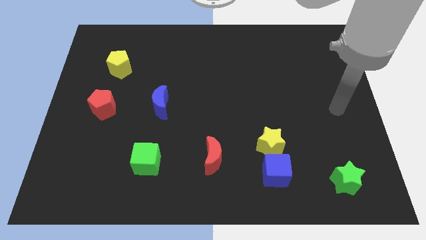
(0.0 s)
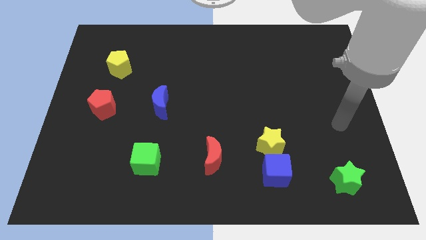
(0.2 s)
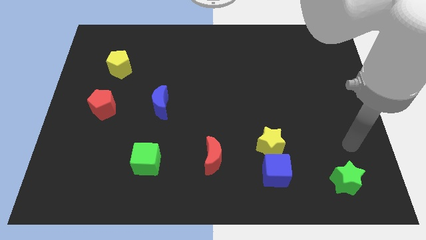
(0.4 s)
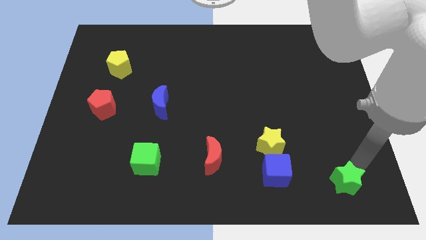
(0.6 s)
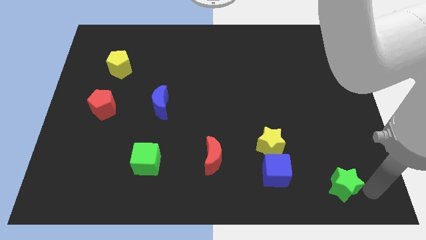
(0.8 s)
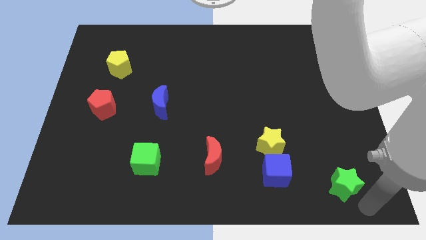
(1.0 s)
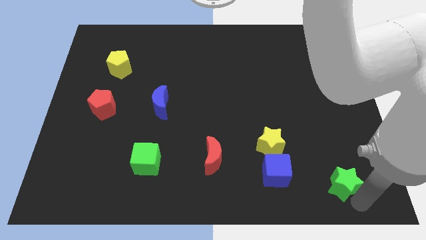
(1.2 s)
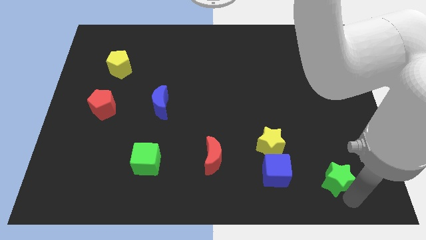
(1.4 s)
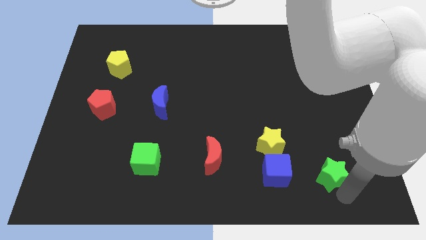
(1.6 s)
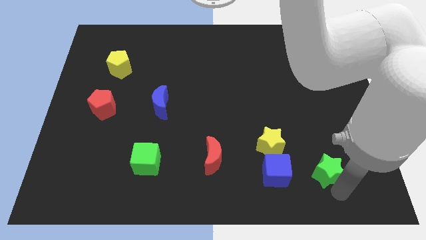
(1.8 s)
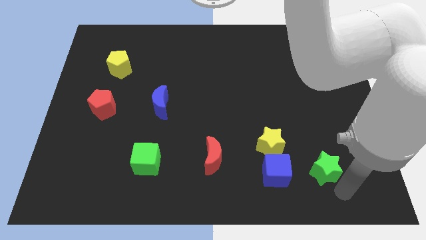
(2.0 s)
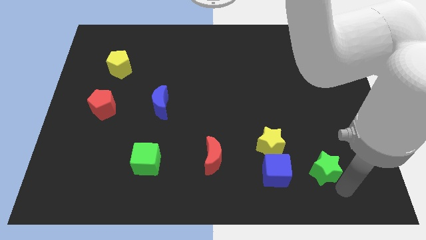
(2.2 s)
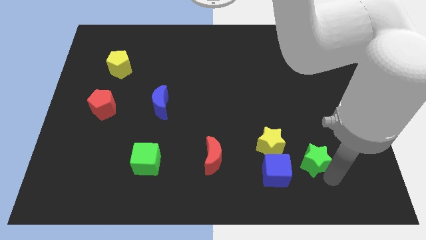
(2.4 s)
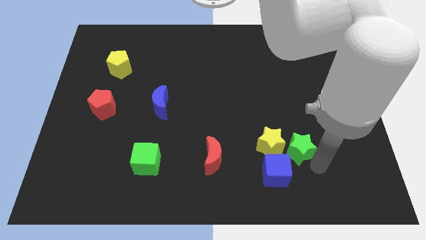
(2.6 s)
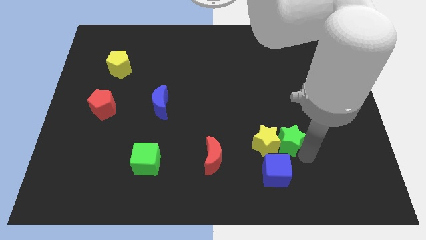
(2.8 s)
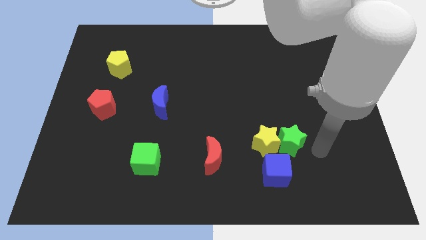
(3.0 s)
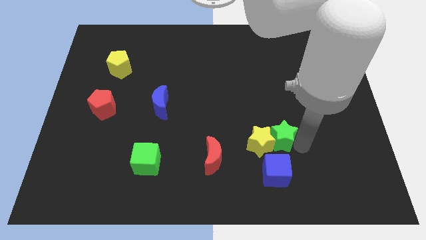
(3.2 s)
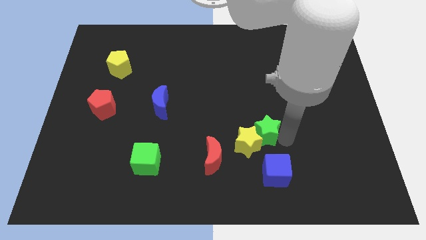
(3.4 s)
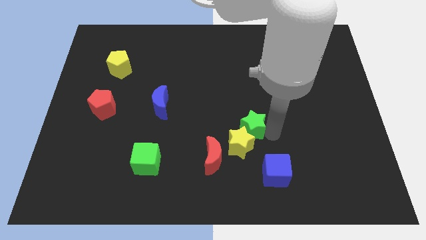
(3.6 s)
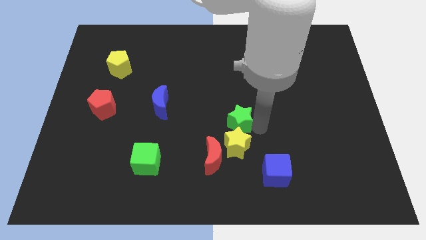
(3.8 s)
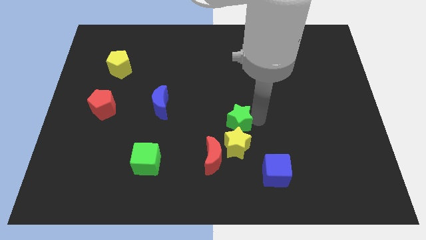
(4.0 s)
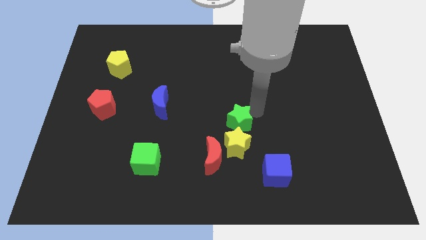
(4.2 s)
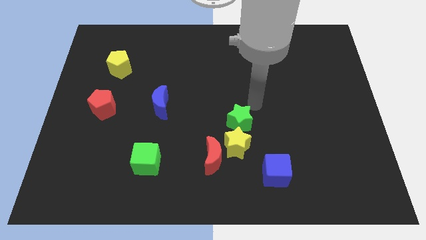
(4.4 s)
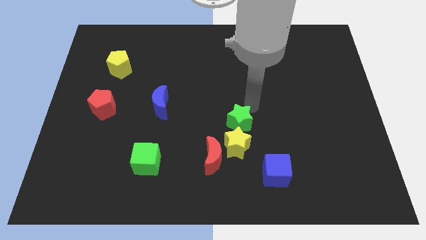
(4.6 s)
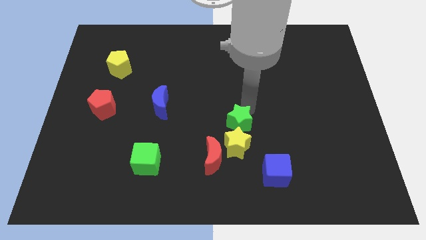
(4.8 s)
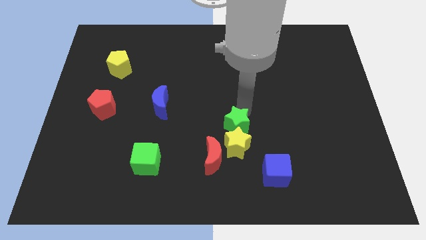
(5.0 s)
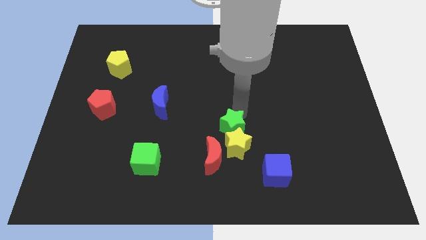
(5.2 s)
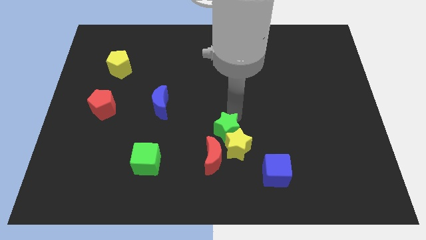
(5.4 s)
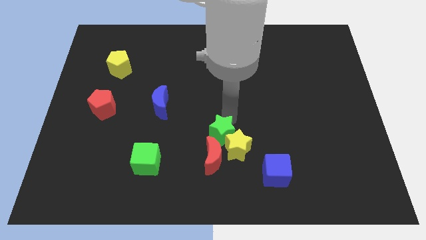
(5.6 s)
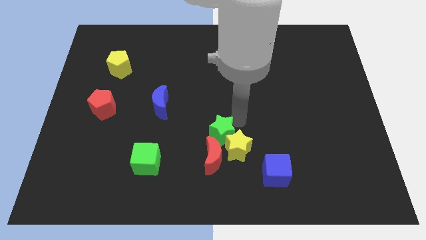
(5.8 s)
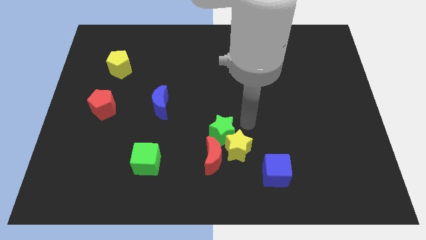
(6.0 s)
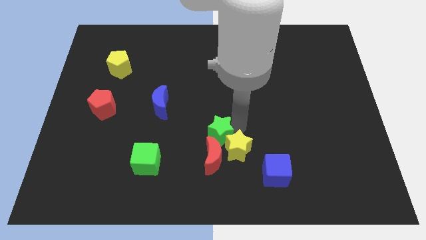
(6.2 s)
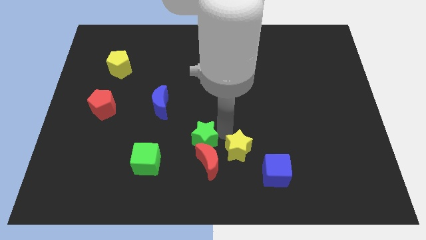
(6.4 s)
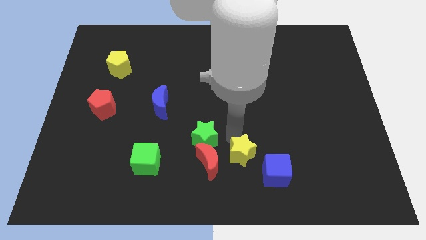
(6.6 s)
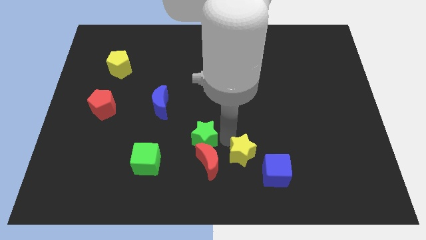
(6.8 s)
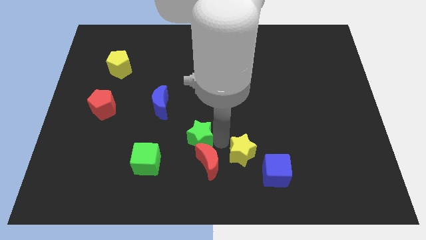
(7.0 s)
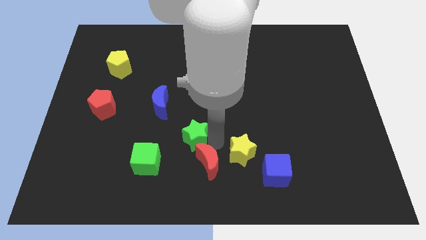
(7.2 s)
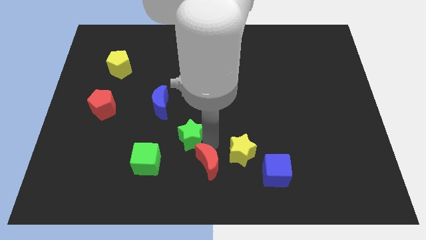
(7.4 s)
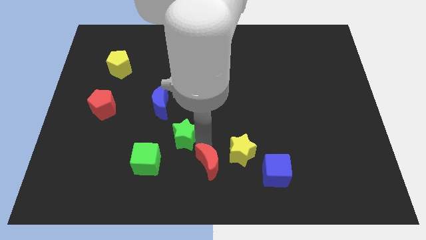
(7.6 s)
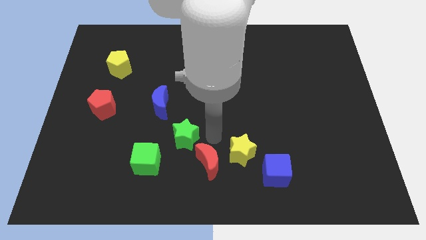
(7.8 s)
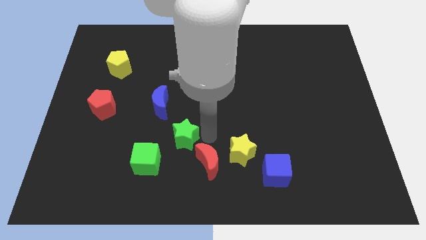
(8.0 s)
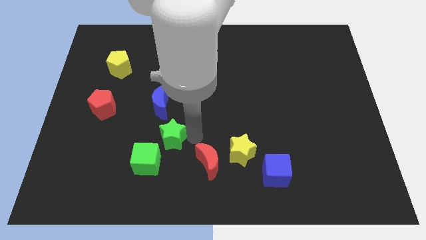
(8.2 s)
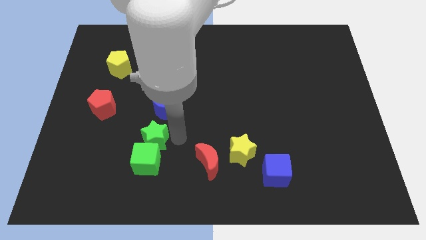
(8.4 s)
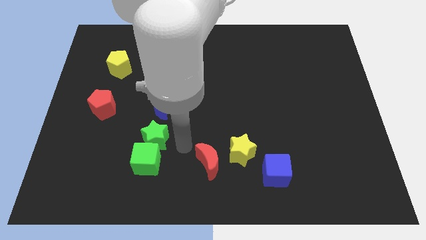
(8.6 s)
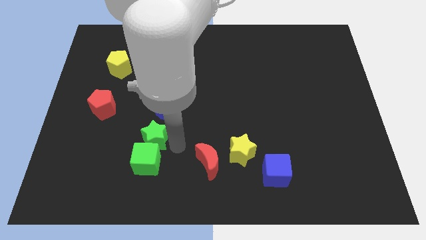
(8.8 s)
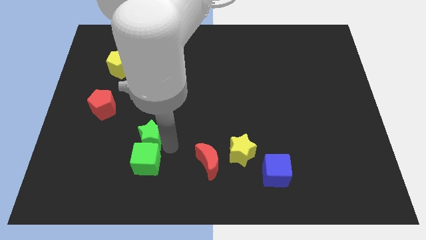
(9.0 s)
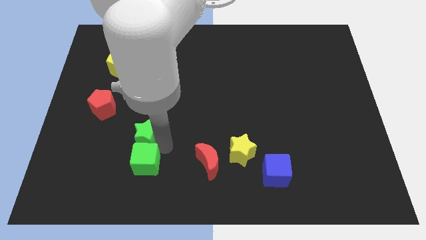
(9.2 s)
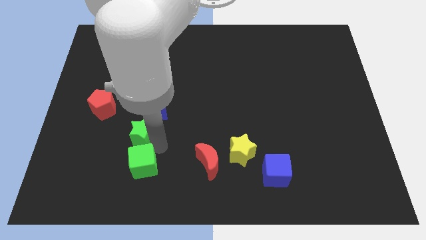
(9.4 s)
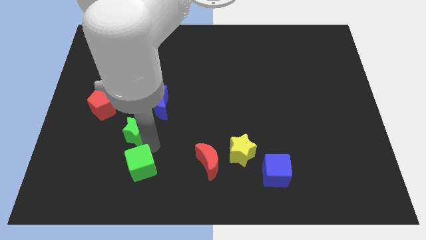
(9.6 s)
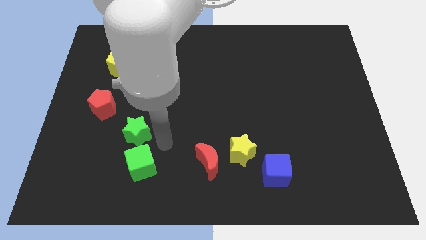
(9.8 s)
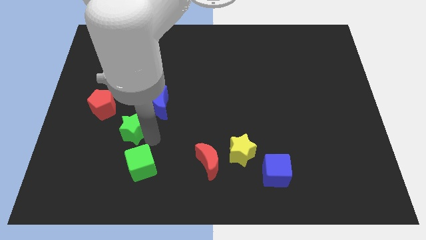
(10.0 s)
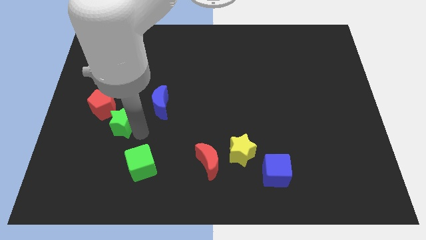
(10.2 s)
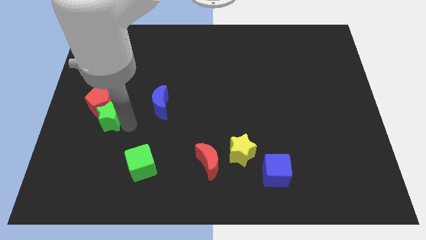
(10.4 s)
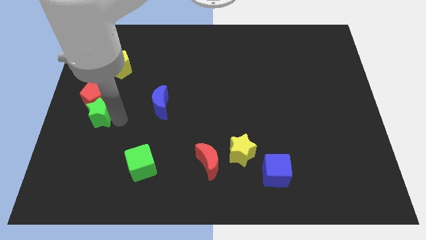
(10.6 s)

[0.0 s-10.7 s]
slide the green star to the left side of the board

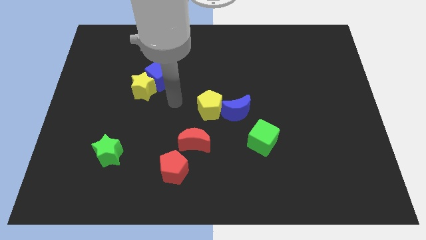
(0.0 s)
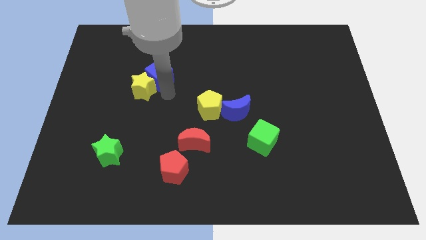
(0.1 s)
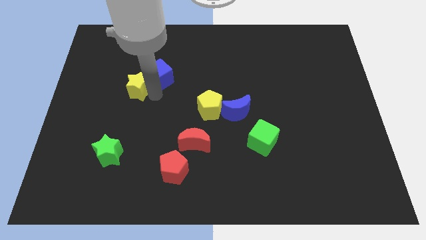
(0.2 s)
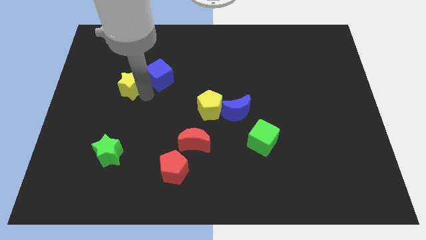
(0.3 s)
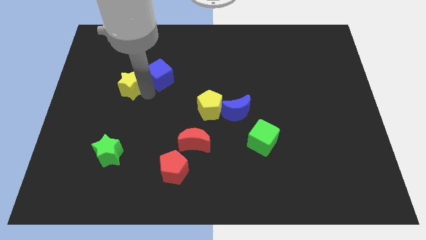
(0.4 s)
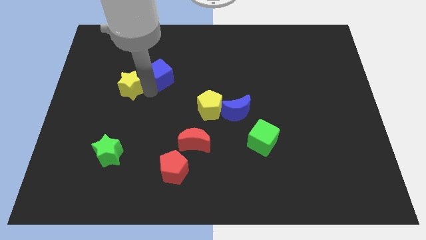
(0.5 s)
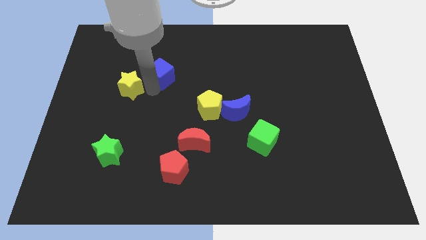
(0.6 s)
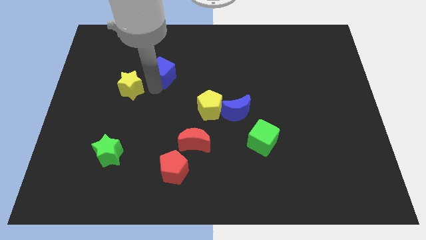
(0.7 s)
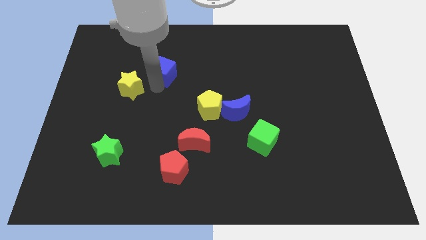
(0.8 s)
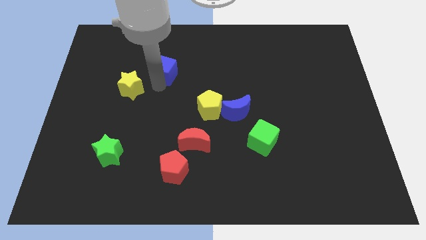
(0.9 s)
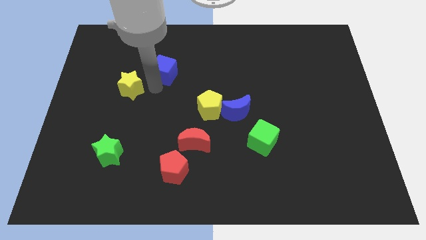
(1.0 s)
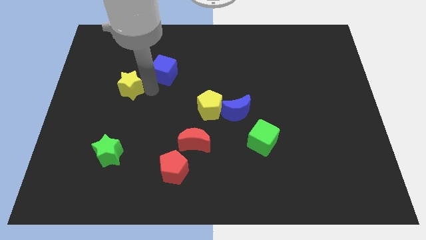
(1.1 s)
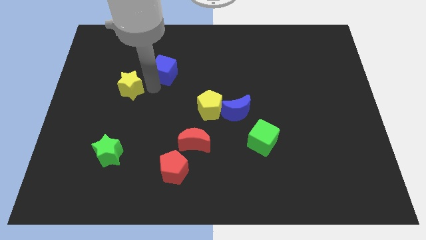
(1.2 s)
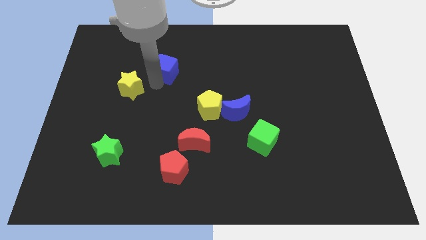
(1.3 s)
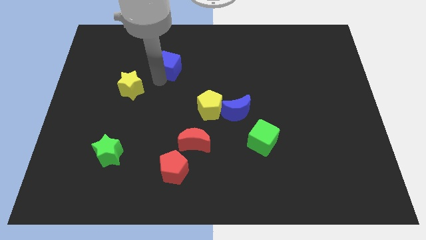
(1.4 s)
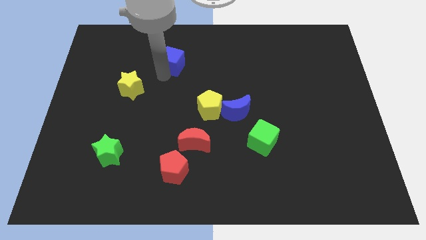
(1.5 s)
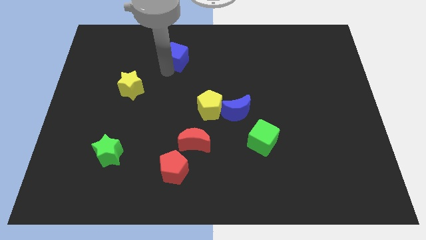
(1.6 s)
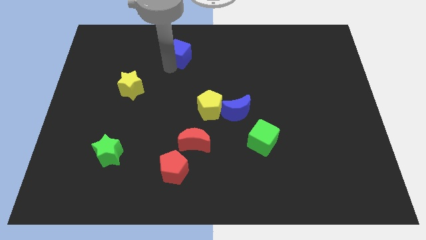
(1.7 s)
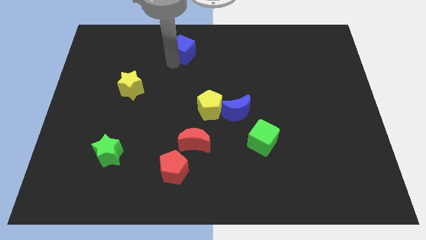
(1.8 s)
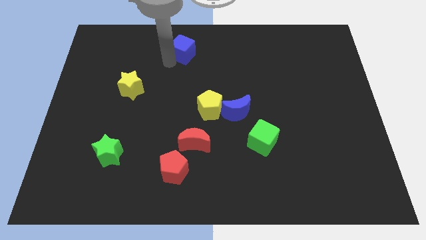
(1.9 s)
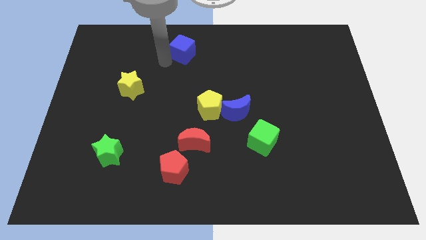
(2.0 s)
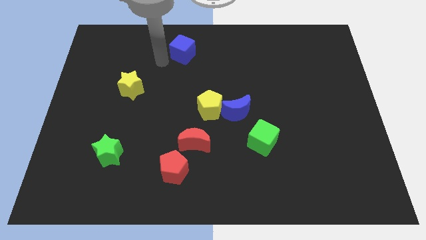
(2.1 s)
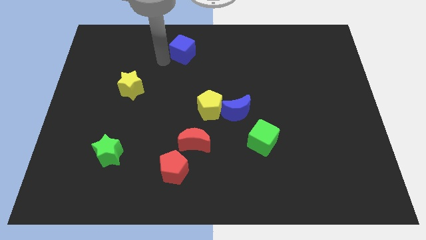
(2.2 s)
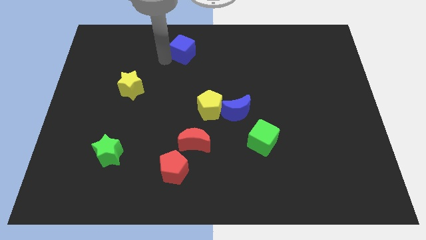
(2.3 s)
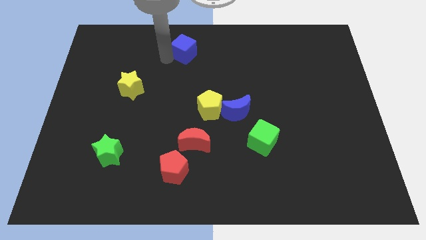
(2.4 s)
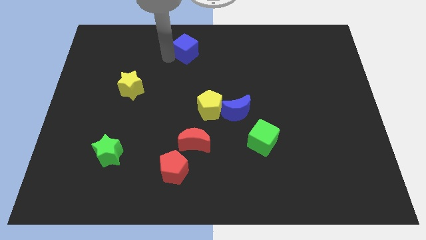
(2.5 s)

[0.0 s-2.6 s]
put the blue cube to the top side
